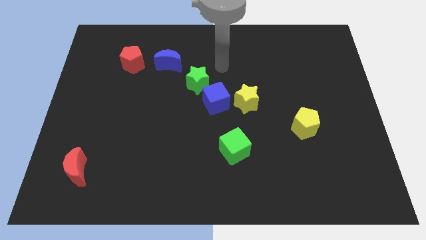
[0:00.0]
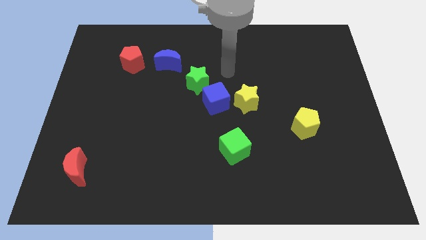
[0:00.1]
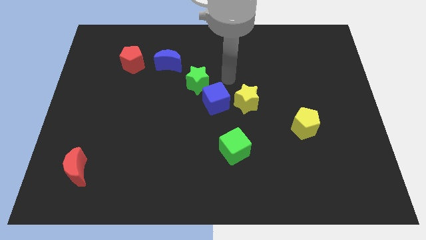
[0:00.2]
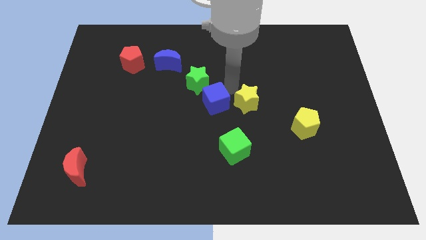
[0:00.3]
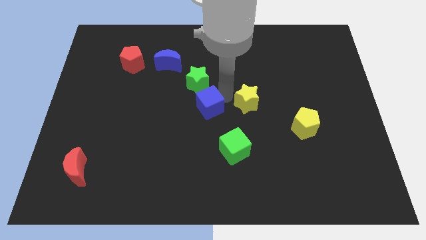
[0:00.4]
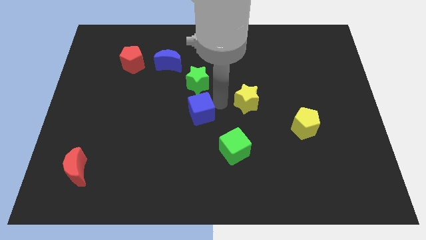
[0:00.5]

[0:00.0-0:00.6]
move the yellow star away from the blue cube

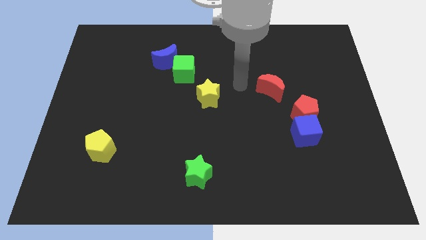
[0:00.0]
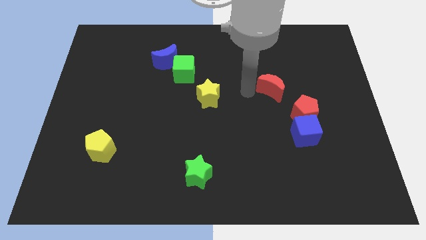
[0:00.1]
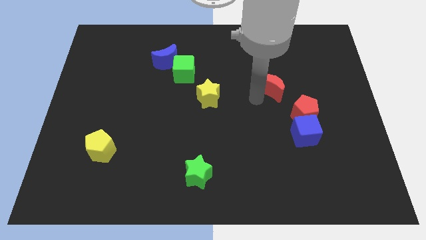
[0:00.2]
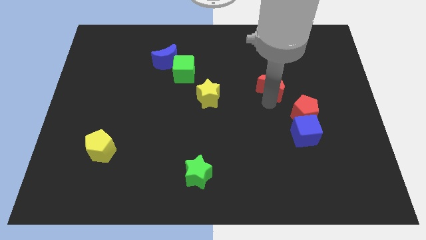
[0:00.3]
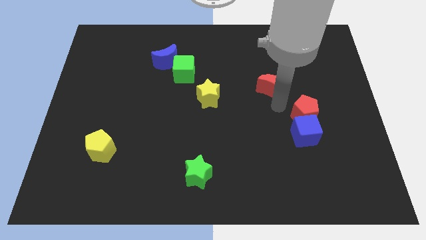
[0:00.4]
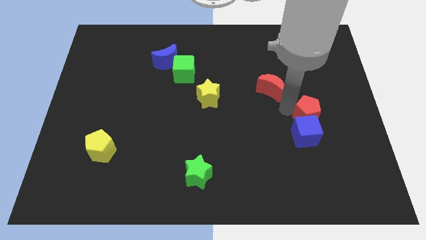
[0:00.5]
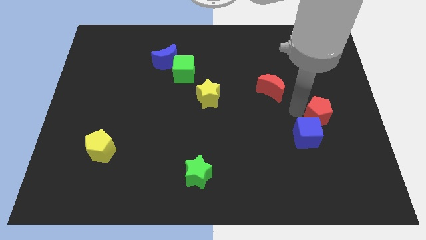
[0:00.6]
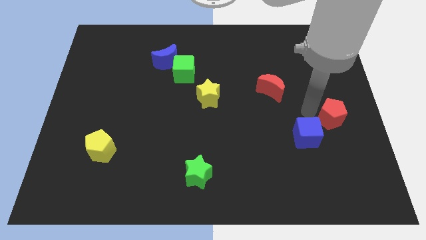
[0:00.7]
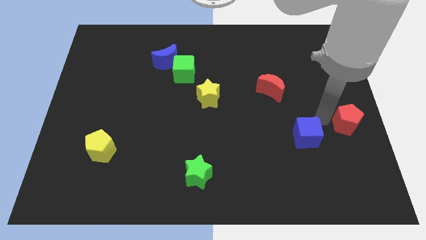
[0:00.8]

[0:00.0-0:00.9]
pull the blue cube apart from the red pentagon

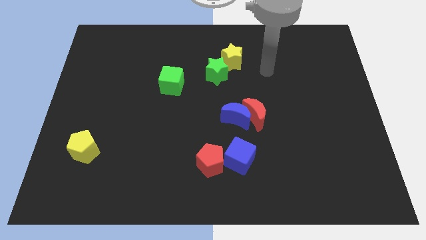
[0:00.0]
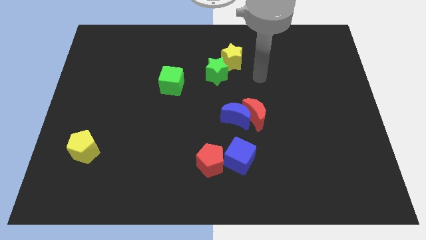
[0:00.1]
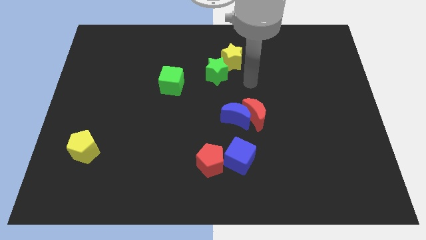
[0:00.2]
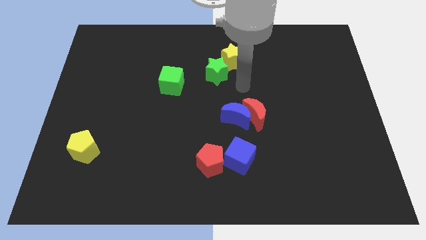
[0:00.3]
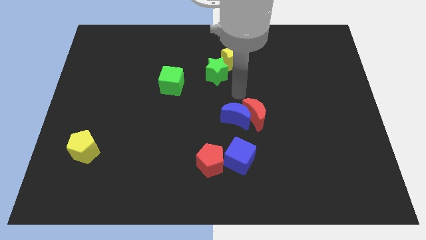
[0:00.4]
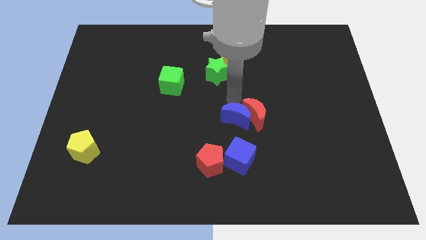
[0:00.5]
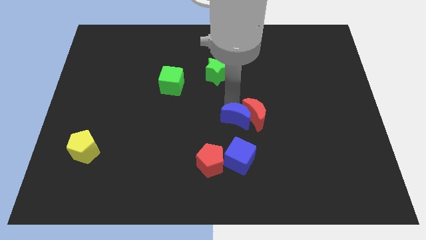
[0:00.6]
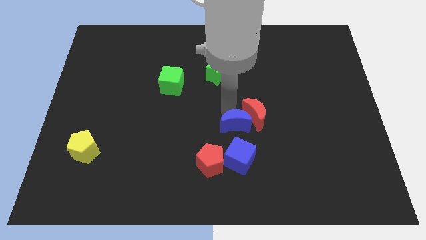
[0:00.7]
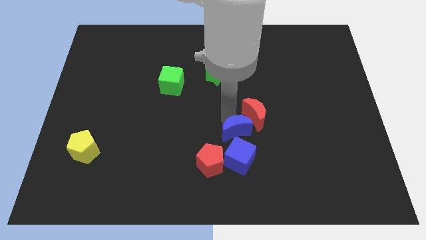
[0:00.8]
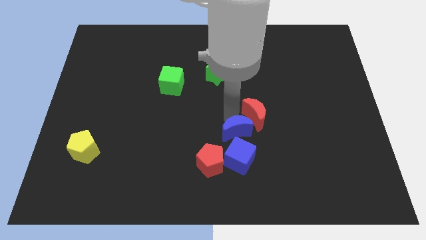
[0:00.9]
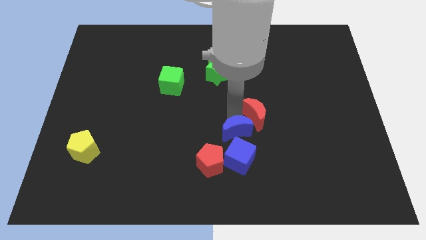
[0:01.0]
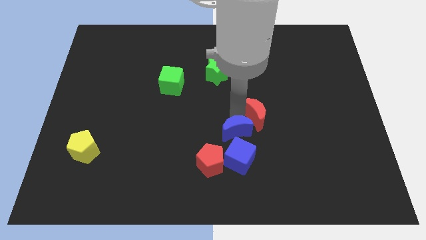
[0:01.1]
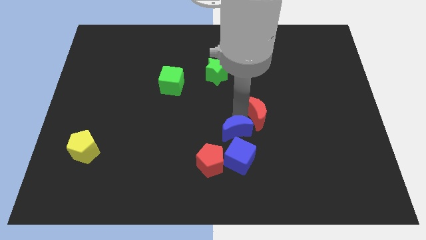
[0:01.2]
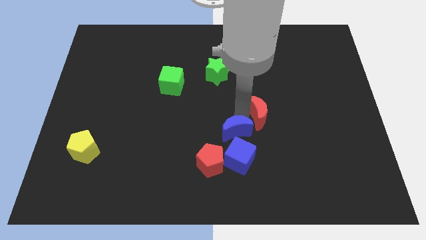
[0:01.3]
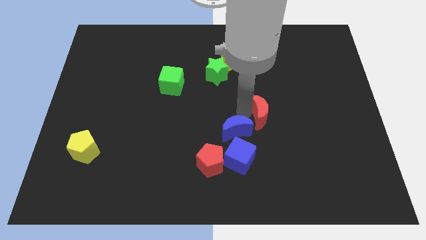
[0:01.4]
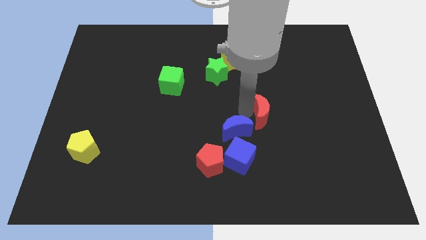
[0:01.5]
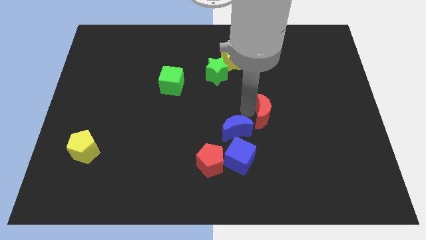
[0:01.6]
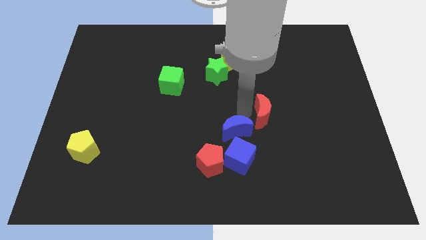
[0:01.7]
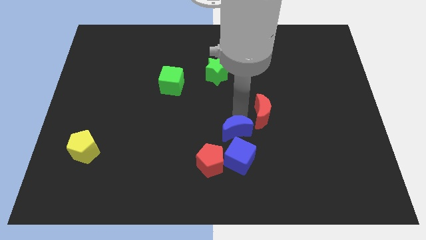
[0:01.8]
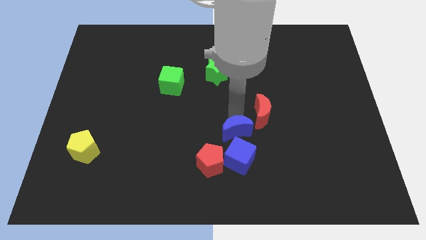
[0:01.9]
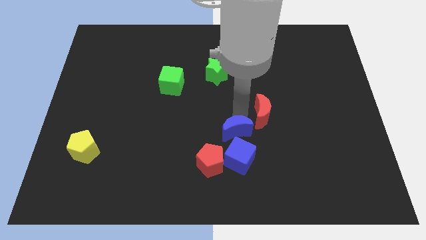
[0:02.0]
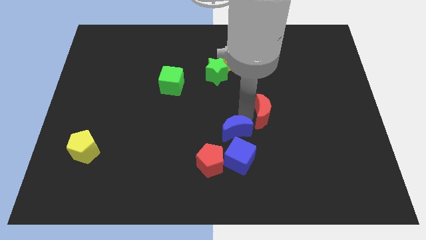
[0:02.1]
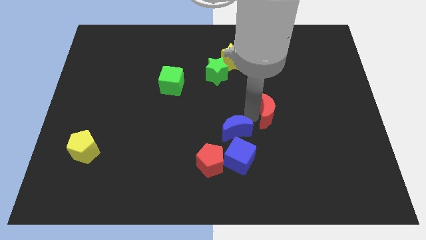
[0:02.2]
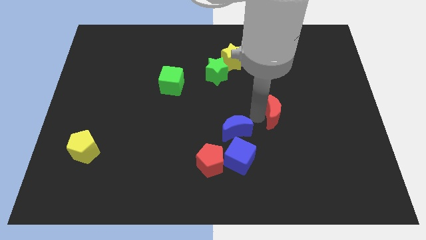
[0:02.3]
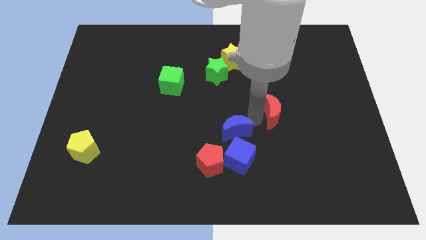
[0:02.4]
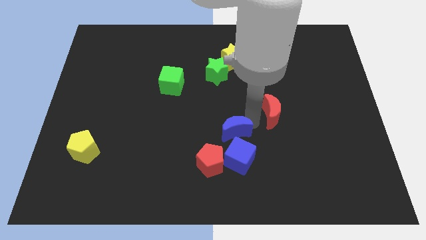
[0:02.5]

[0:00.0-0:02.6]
move the red moon away from the blue moon

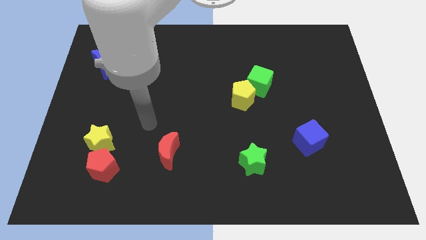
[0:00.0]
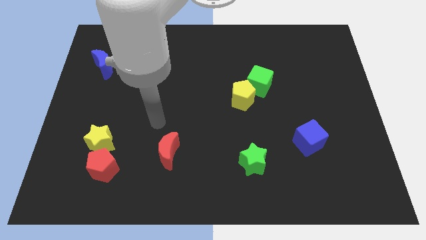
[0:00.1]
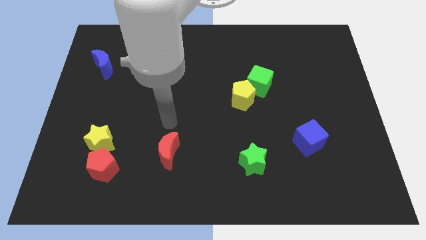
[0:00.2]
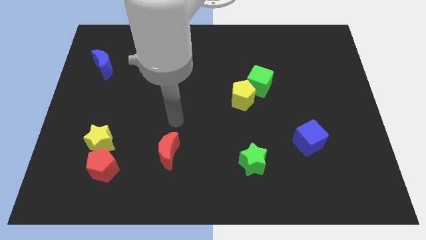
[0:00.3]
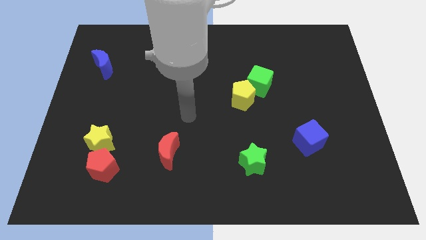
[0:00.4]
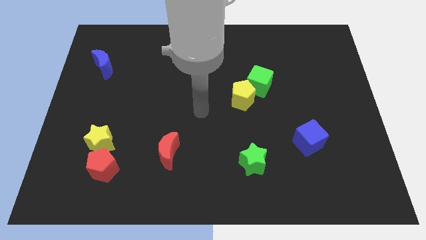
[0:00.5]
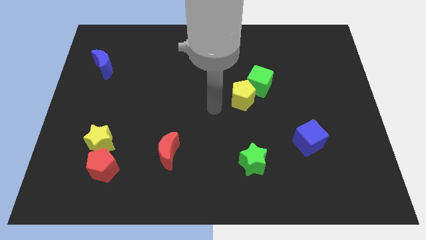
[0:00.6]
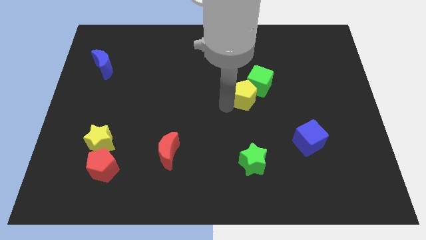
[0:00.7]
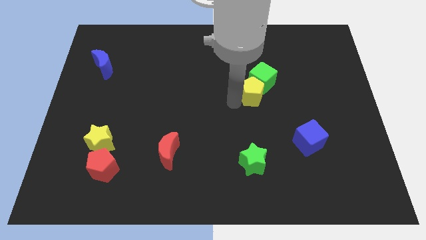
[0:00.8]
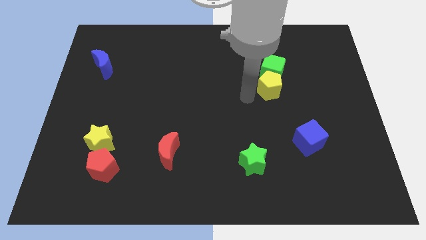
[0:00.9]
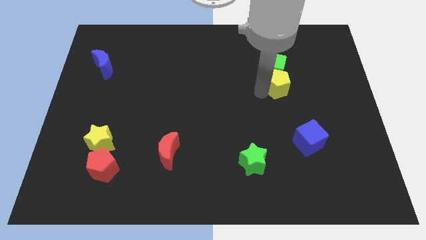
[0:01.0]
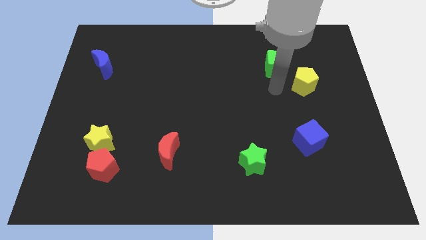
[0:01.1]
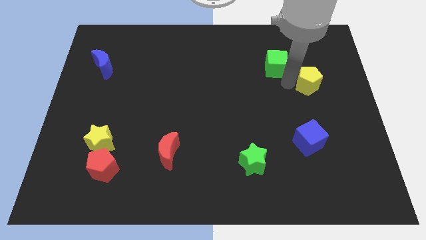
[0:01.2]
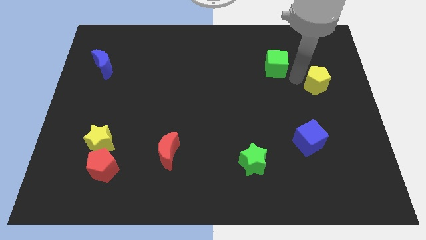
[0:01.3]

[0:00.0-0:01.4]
separate the green cube from the yellow pentagon

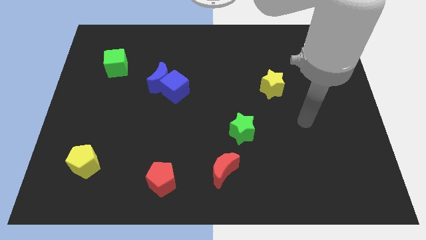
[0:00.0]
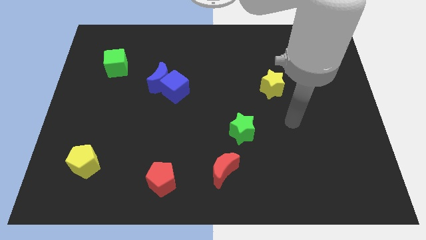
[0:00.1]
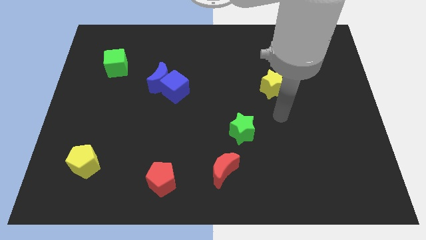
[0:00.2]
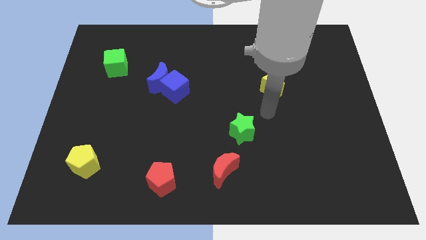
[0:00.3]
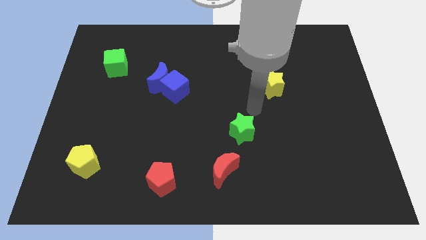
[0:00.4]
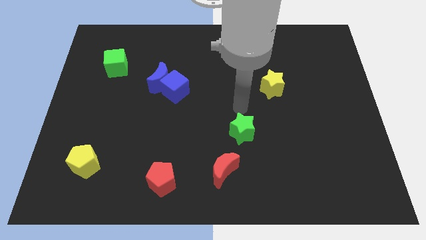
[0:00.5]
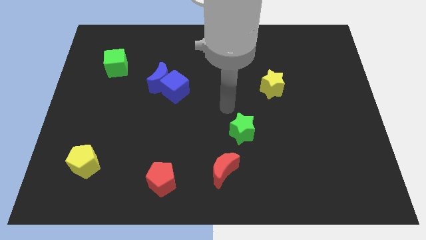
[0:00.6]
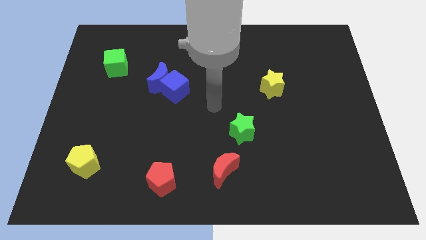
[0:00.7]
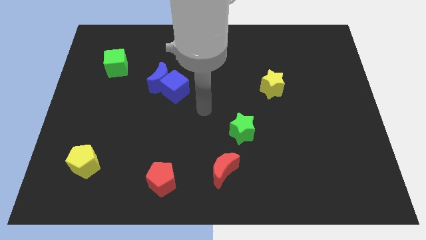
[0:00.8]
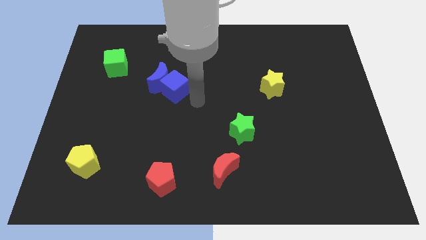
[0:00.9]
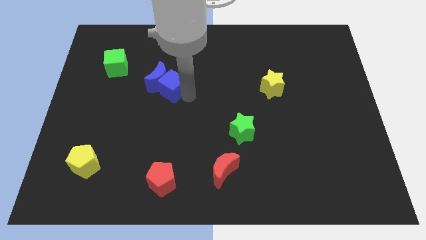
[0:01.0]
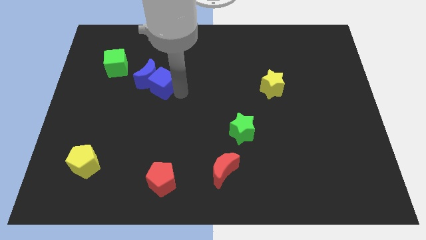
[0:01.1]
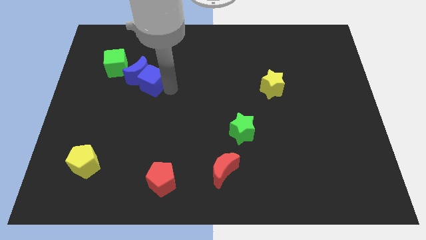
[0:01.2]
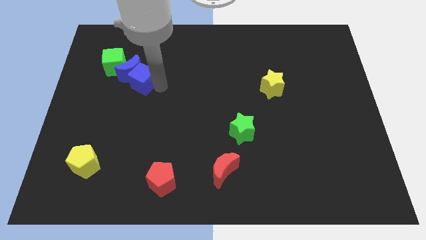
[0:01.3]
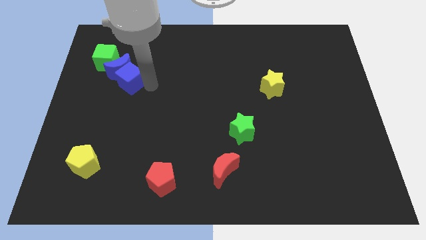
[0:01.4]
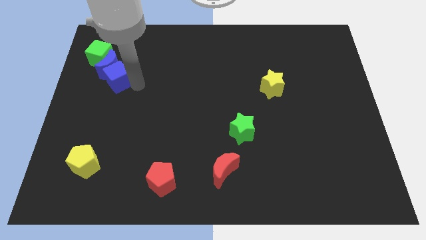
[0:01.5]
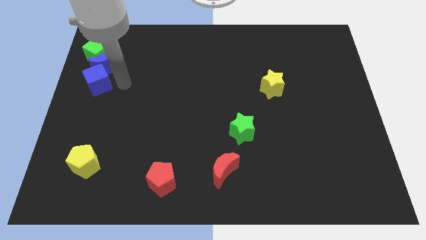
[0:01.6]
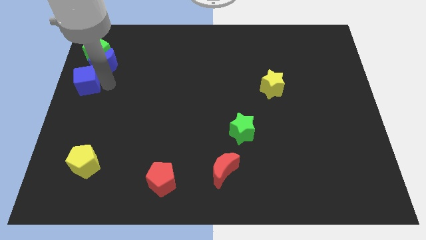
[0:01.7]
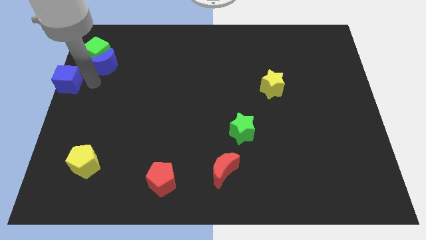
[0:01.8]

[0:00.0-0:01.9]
move the blue moon away from the blue cube

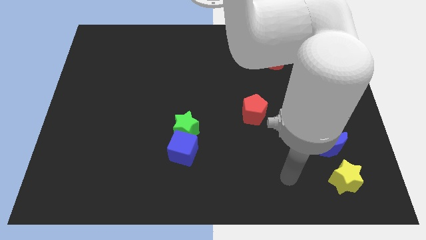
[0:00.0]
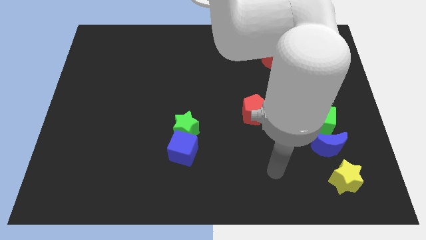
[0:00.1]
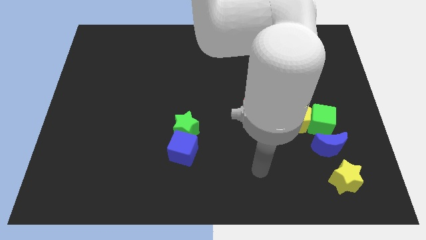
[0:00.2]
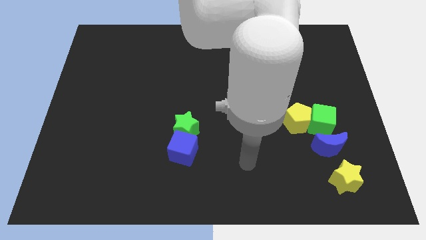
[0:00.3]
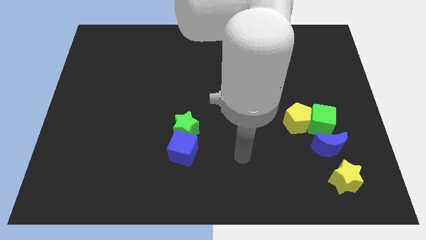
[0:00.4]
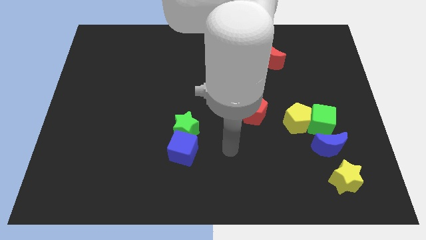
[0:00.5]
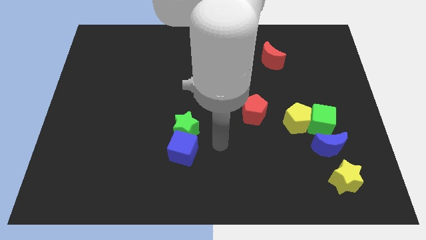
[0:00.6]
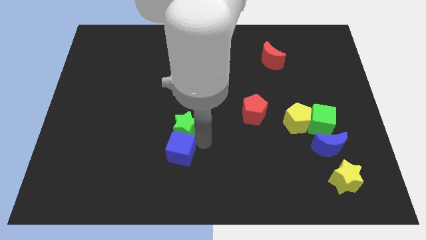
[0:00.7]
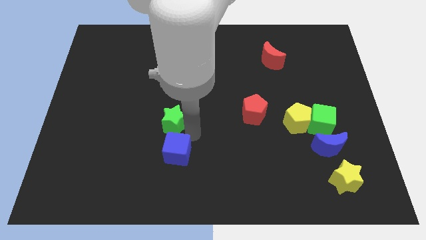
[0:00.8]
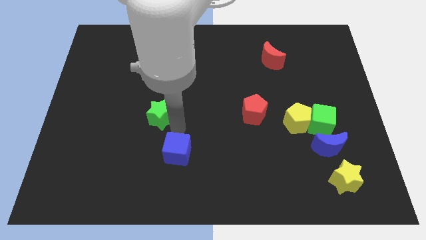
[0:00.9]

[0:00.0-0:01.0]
pull the blue cube apart from the green star

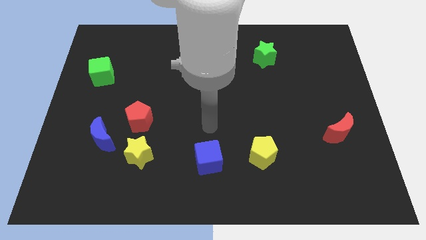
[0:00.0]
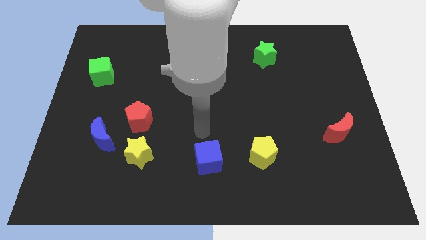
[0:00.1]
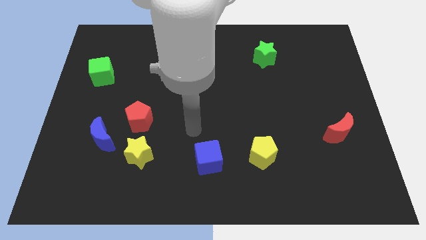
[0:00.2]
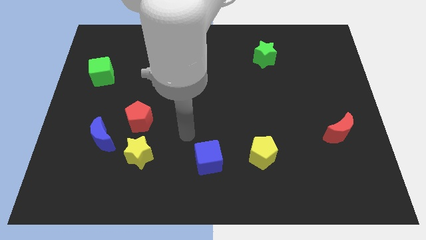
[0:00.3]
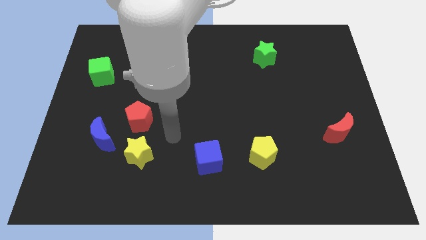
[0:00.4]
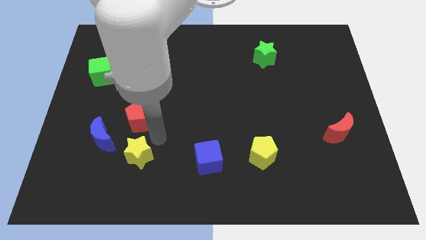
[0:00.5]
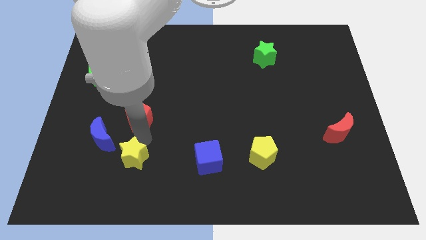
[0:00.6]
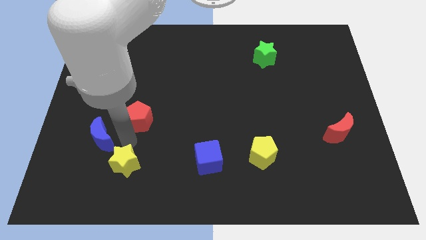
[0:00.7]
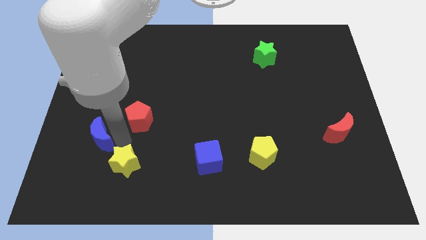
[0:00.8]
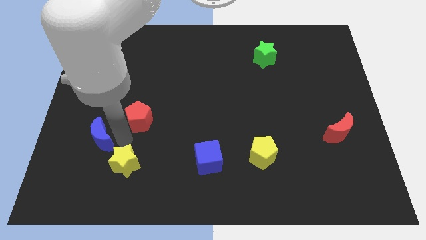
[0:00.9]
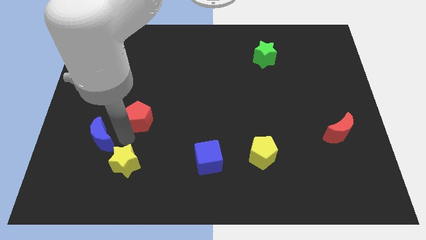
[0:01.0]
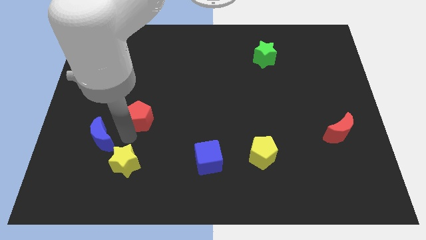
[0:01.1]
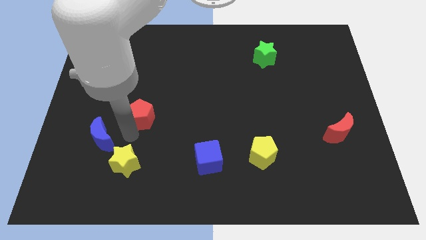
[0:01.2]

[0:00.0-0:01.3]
move the red pentagon away from the blue moon and yellow star
